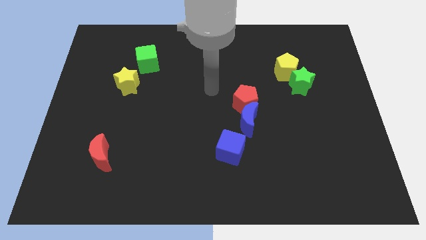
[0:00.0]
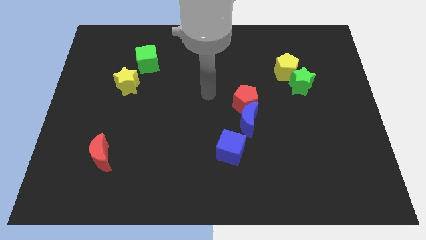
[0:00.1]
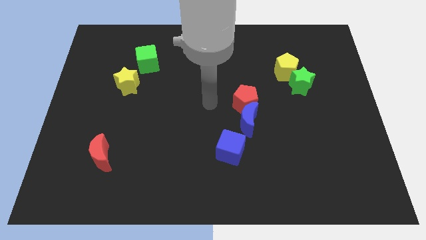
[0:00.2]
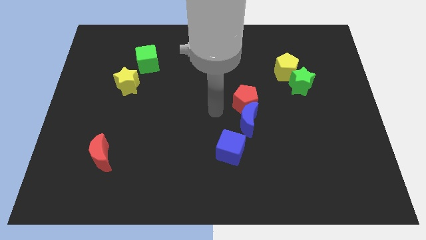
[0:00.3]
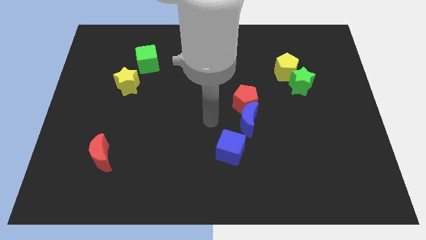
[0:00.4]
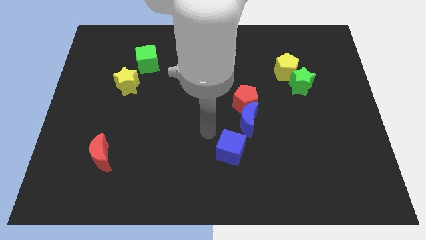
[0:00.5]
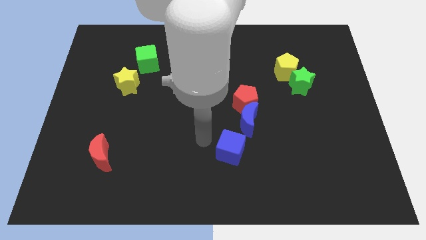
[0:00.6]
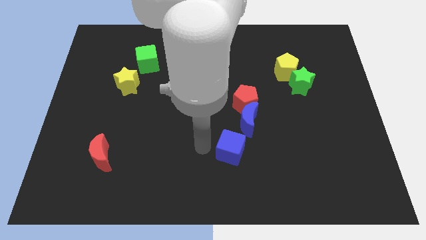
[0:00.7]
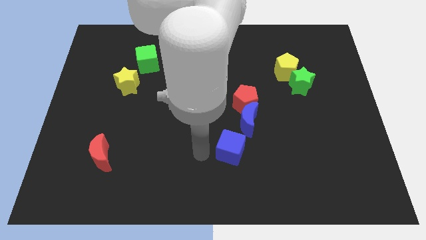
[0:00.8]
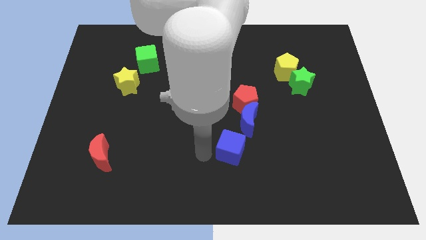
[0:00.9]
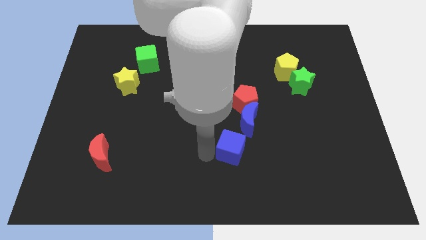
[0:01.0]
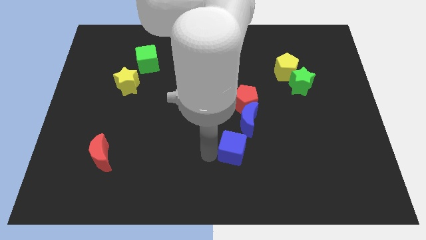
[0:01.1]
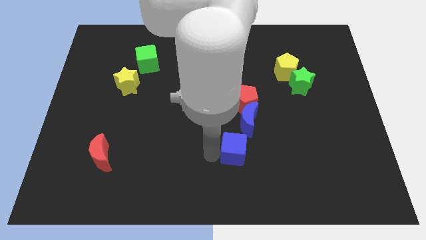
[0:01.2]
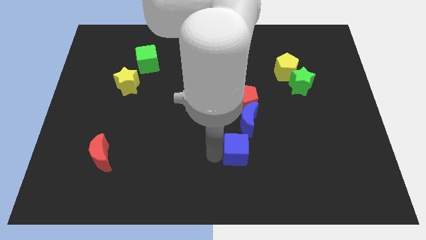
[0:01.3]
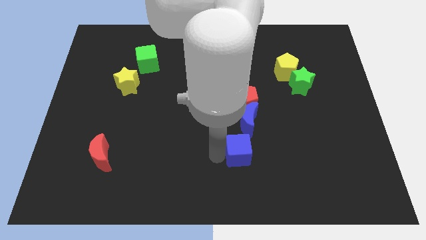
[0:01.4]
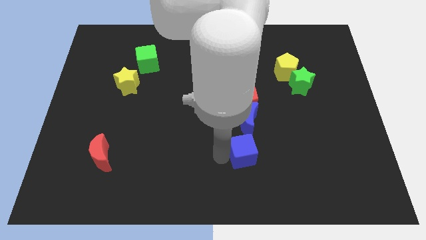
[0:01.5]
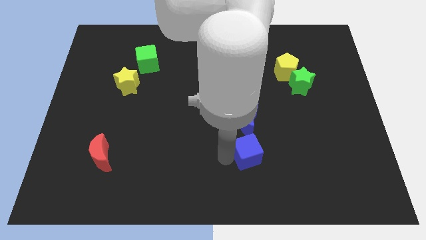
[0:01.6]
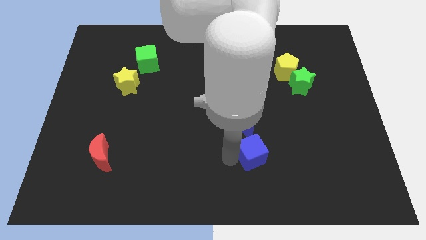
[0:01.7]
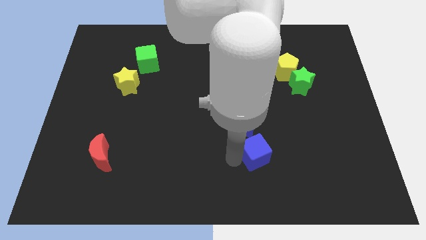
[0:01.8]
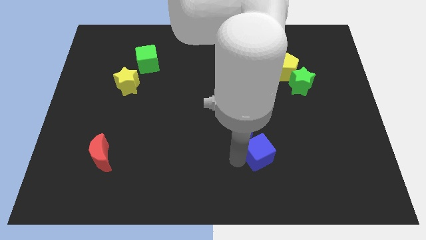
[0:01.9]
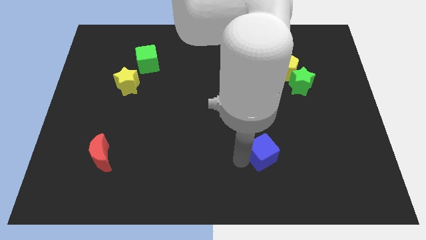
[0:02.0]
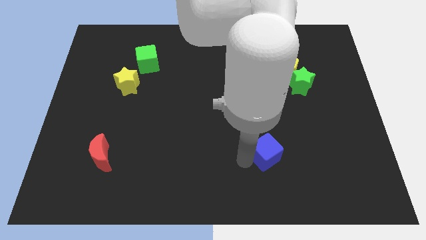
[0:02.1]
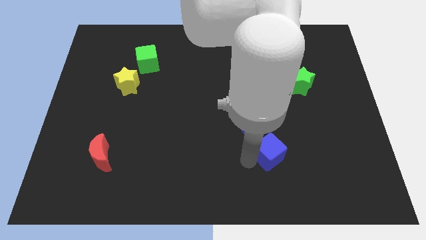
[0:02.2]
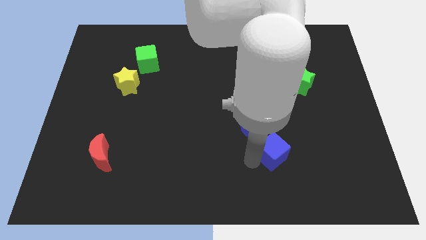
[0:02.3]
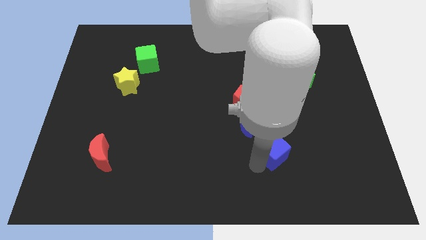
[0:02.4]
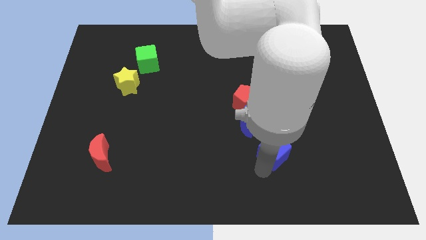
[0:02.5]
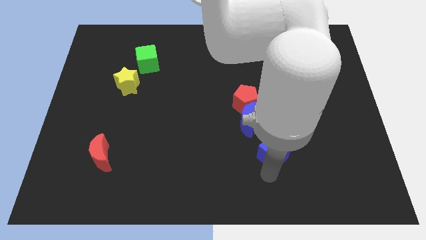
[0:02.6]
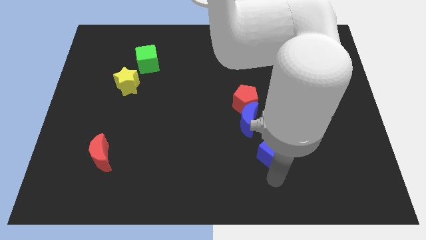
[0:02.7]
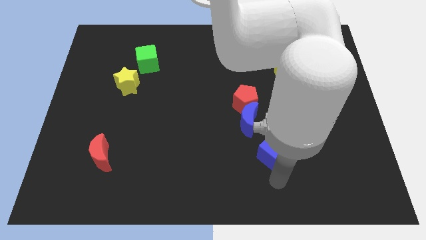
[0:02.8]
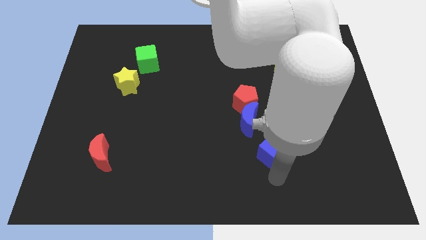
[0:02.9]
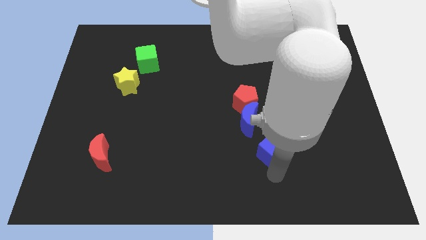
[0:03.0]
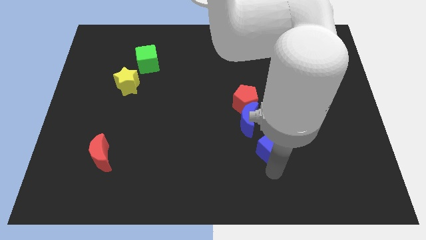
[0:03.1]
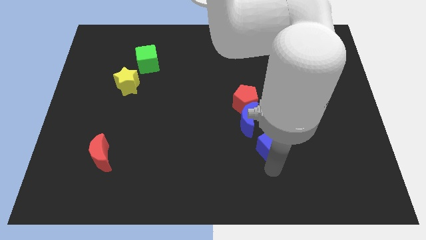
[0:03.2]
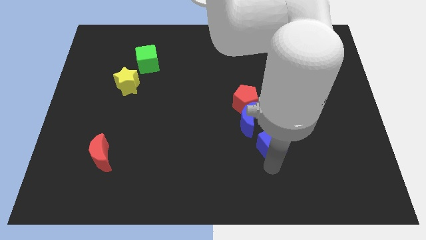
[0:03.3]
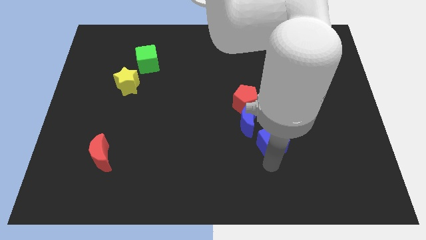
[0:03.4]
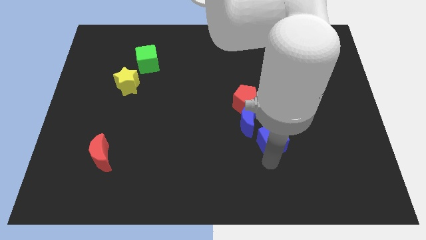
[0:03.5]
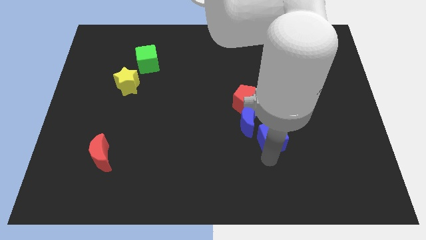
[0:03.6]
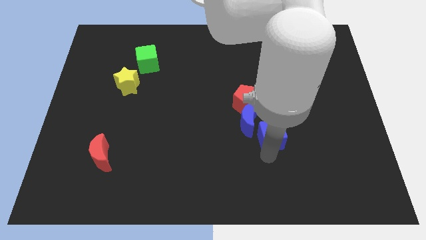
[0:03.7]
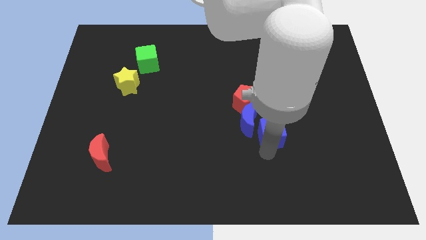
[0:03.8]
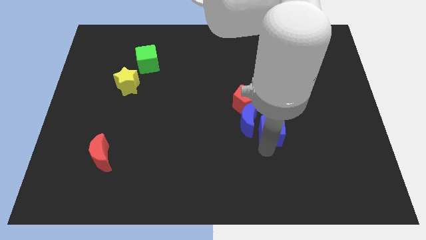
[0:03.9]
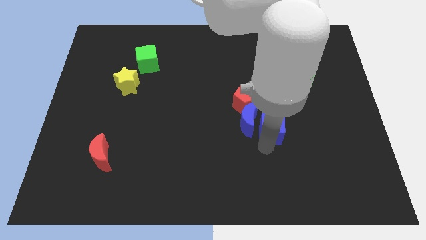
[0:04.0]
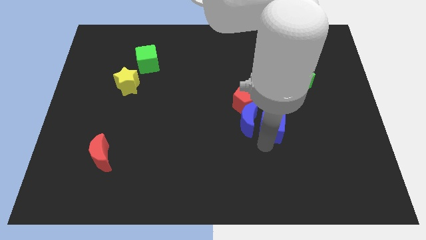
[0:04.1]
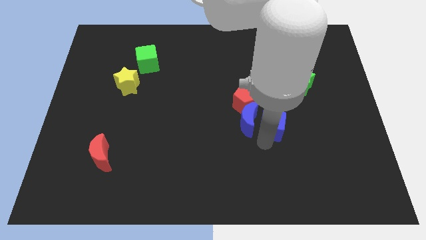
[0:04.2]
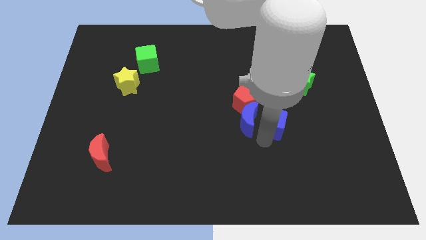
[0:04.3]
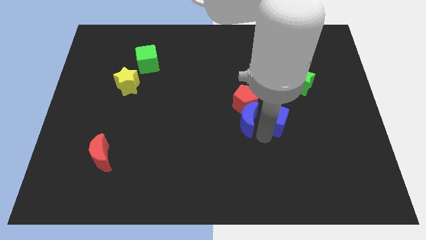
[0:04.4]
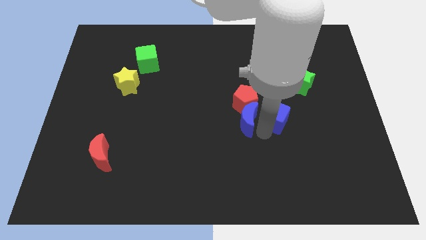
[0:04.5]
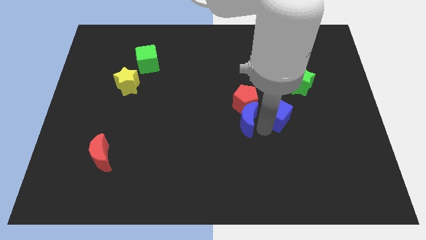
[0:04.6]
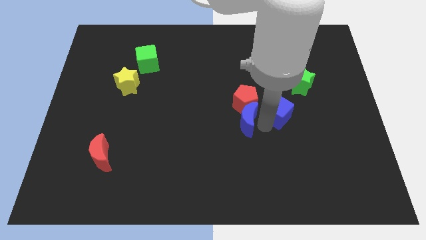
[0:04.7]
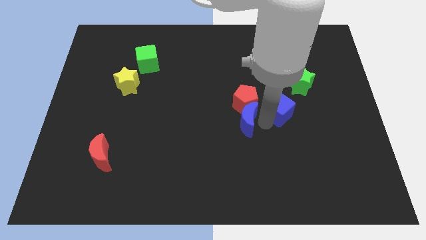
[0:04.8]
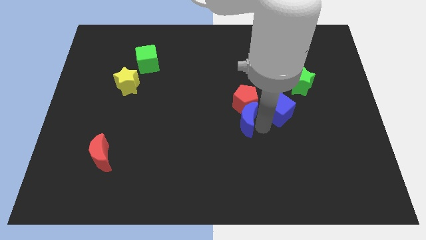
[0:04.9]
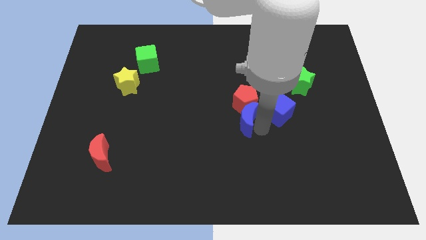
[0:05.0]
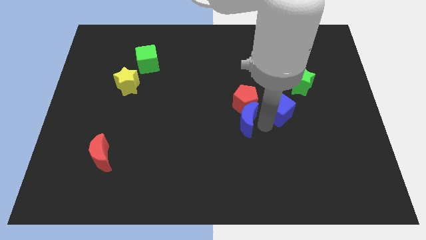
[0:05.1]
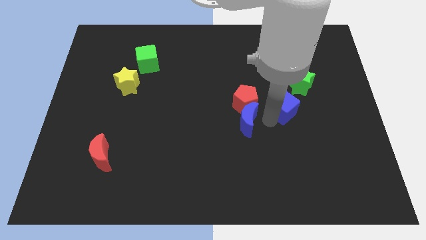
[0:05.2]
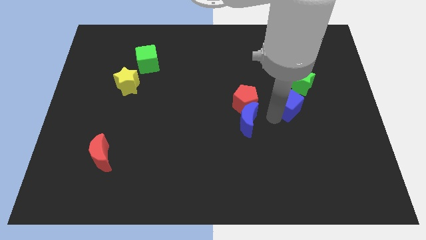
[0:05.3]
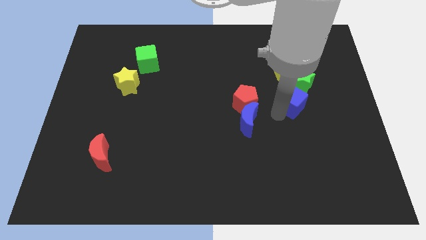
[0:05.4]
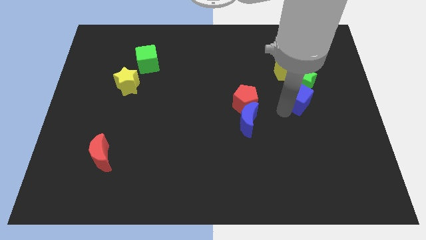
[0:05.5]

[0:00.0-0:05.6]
put the blue cube towards the green star

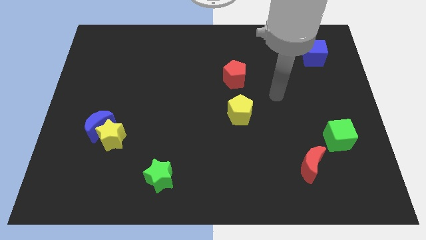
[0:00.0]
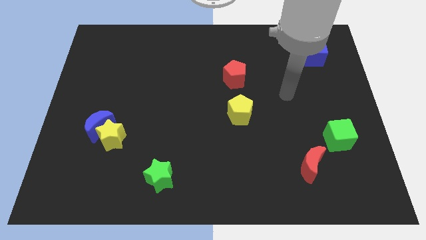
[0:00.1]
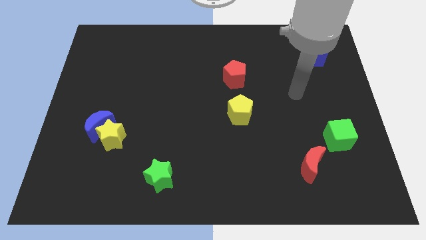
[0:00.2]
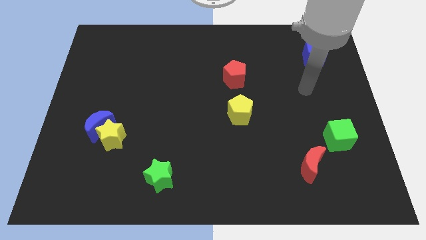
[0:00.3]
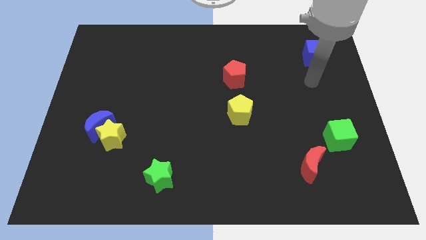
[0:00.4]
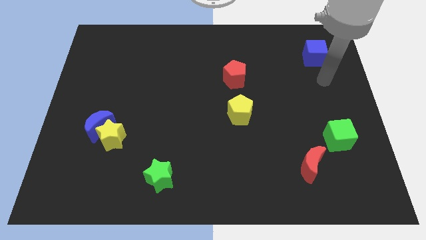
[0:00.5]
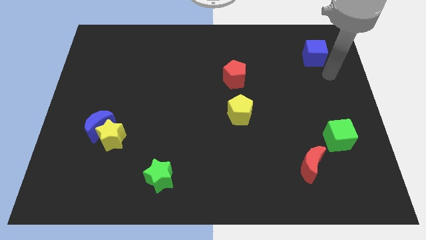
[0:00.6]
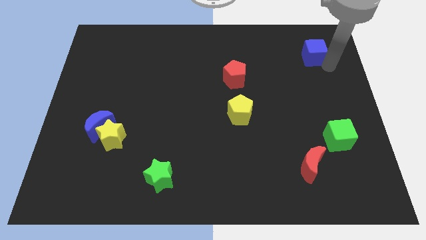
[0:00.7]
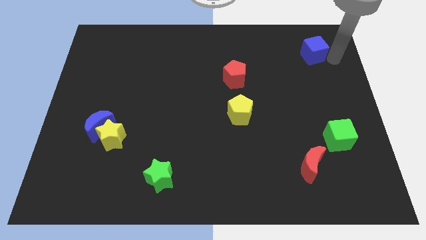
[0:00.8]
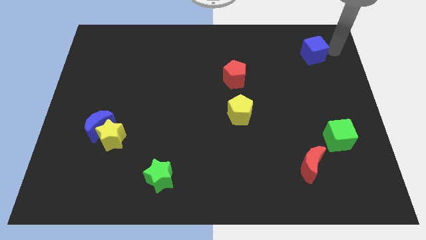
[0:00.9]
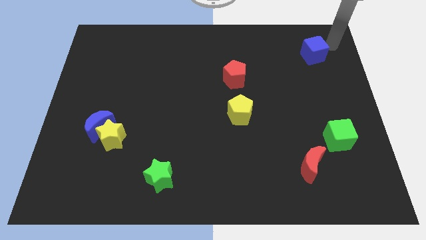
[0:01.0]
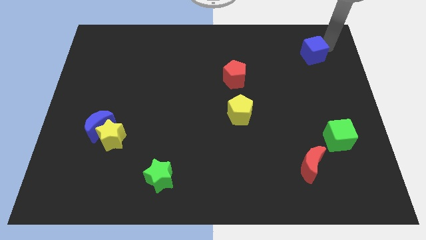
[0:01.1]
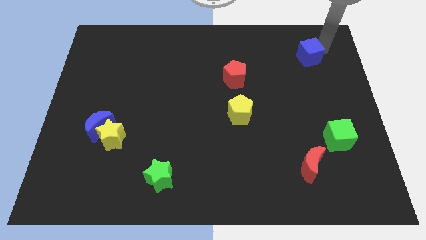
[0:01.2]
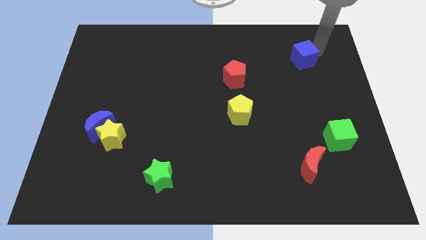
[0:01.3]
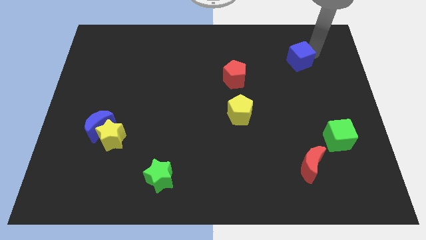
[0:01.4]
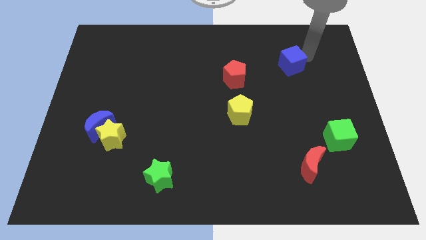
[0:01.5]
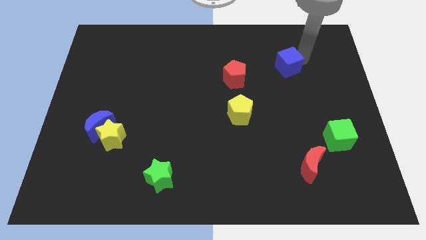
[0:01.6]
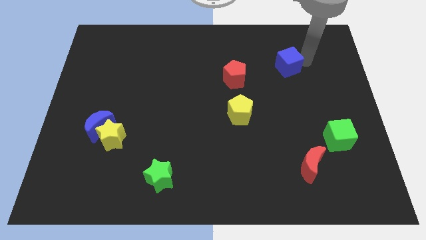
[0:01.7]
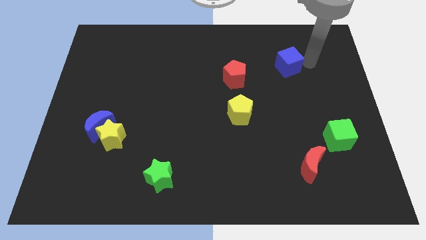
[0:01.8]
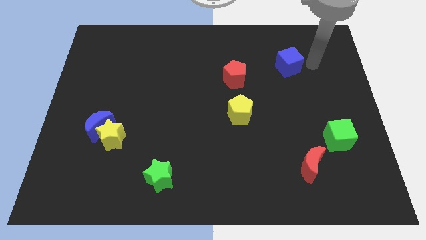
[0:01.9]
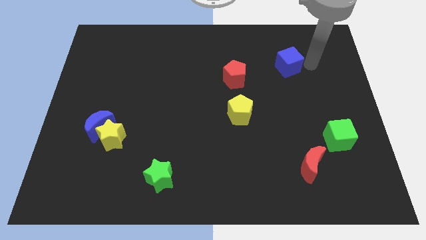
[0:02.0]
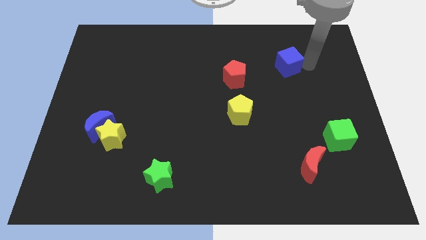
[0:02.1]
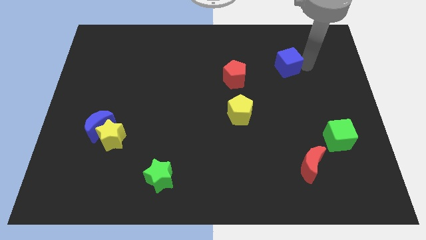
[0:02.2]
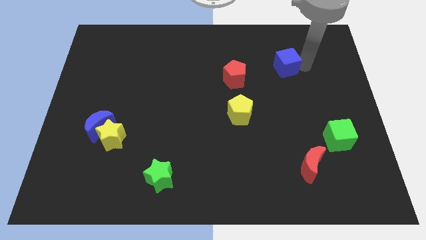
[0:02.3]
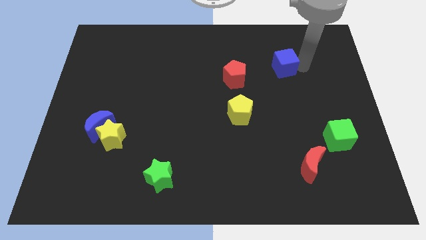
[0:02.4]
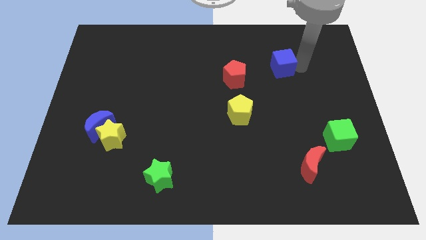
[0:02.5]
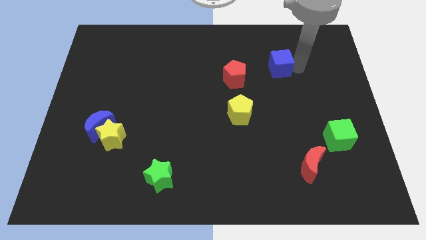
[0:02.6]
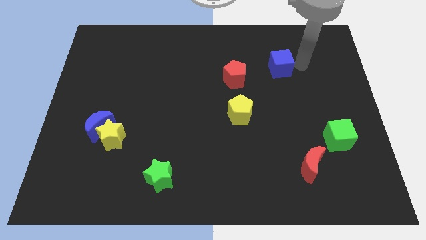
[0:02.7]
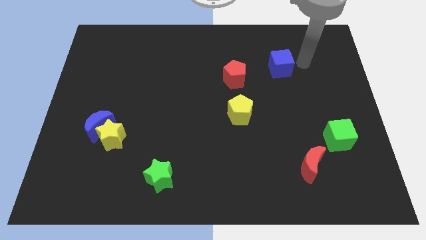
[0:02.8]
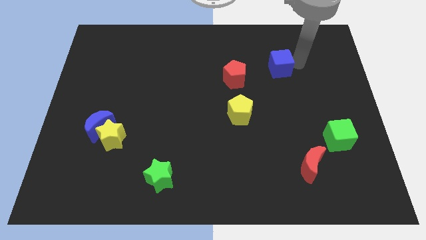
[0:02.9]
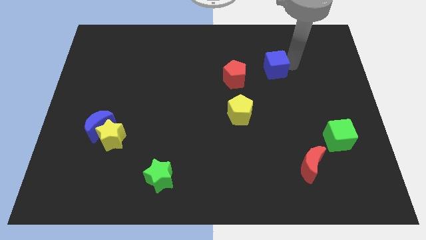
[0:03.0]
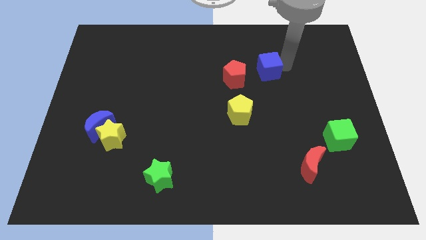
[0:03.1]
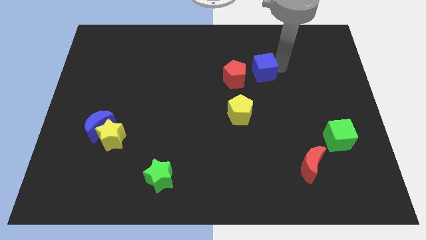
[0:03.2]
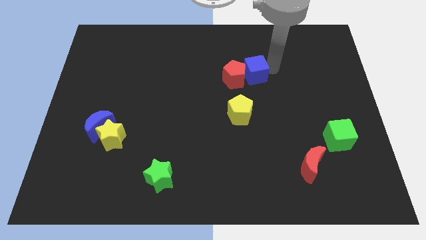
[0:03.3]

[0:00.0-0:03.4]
slide the blue cube close to the red pentagon
